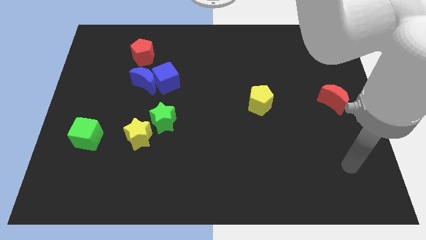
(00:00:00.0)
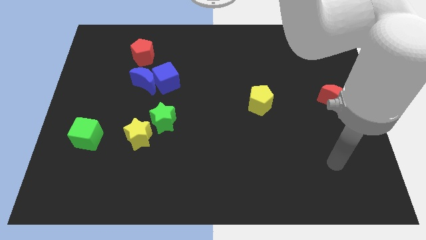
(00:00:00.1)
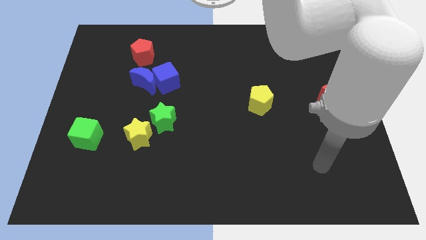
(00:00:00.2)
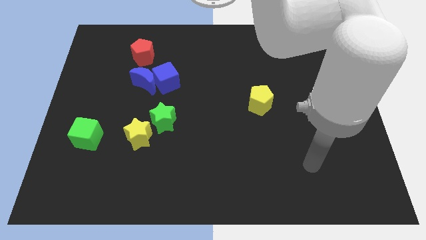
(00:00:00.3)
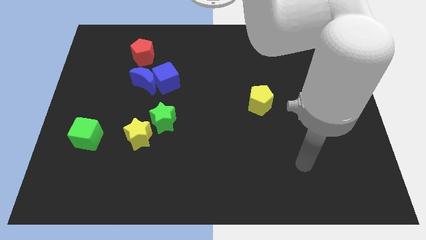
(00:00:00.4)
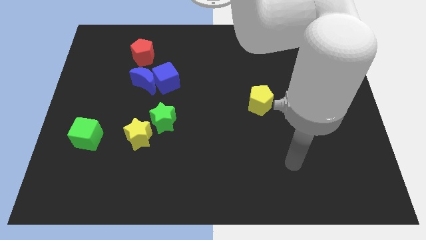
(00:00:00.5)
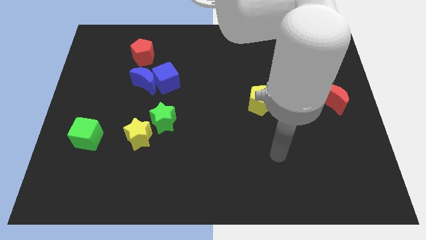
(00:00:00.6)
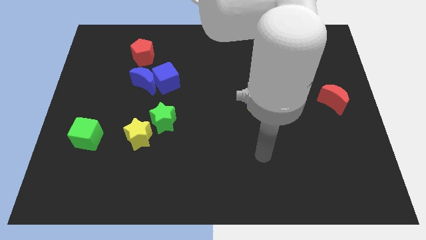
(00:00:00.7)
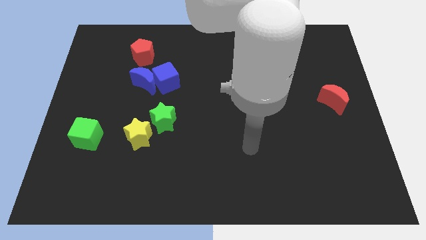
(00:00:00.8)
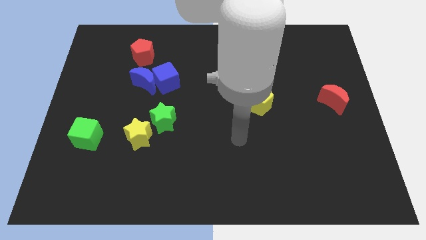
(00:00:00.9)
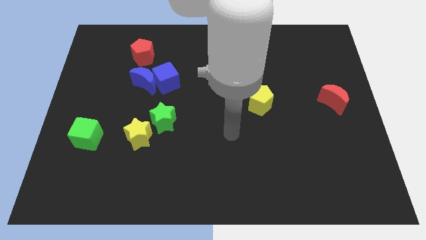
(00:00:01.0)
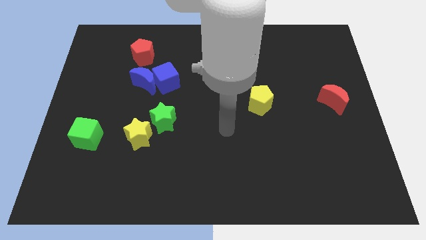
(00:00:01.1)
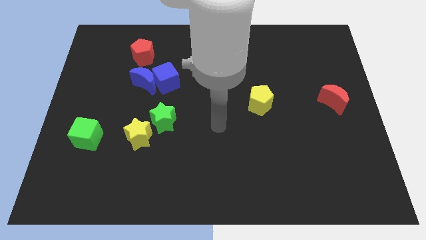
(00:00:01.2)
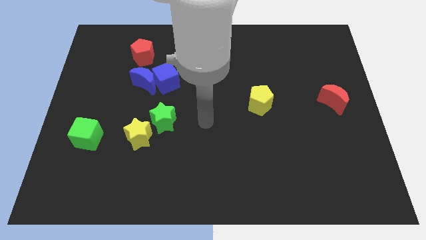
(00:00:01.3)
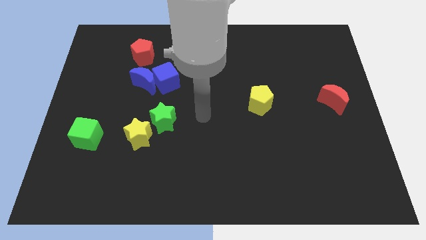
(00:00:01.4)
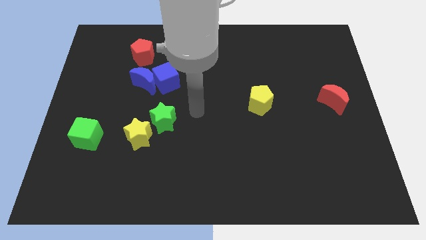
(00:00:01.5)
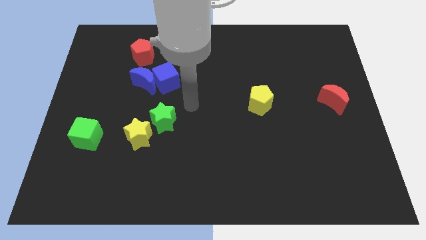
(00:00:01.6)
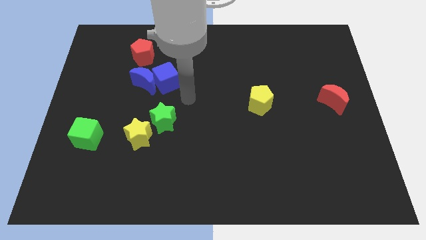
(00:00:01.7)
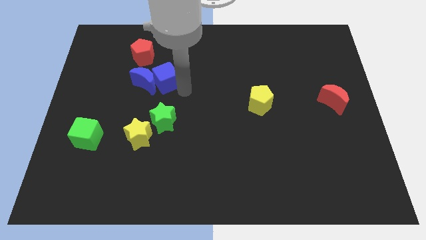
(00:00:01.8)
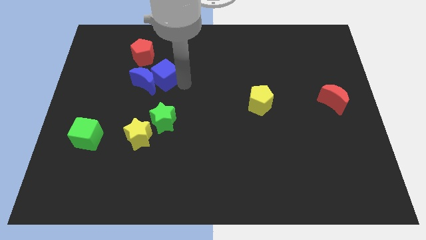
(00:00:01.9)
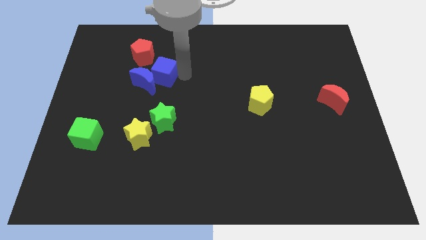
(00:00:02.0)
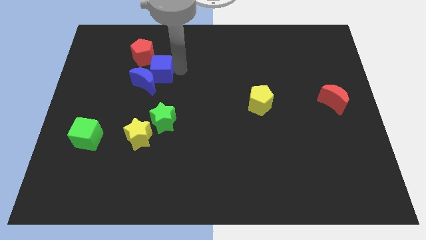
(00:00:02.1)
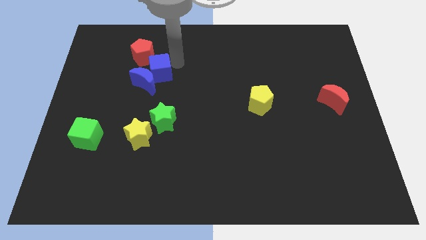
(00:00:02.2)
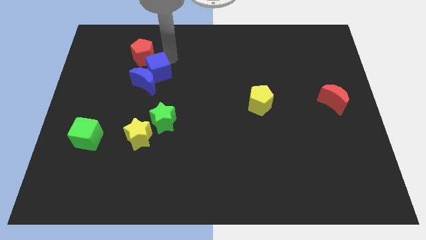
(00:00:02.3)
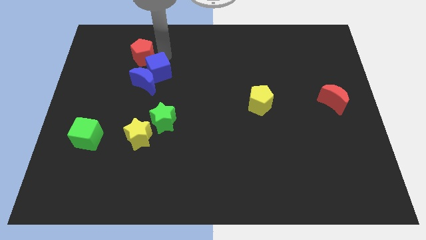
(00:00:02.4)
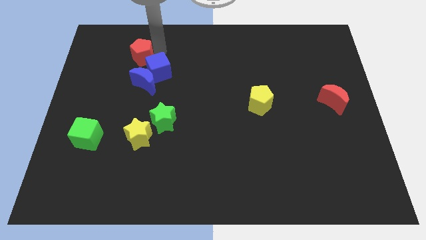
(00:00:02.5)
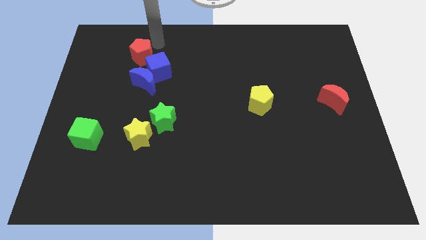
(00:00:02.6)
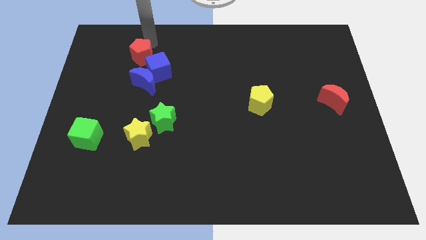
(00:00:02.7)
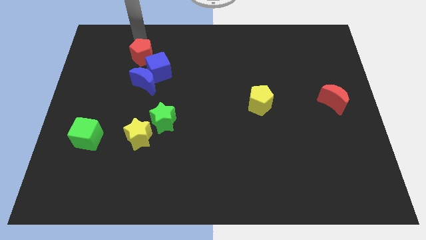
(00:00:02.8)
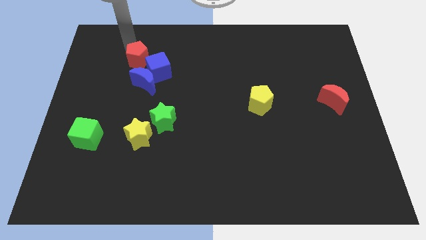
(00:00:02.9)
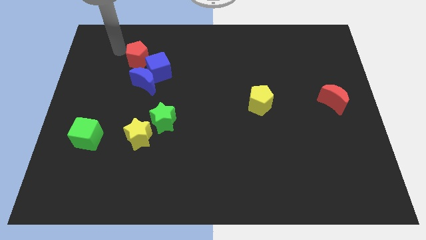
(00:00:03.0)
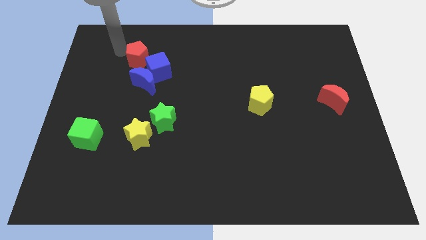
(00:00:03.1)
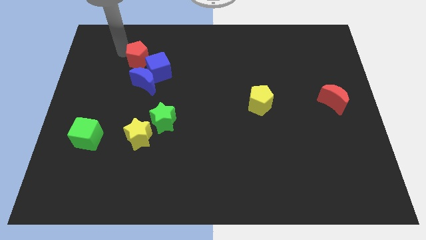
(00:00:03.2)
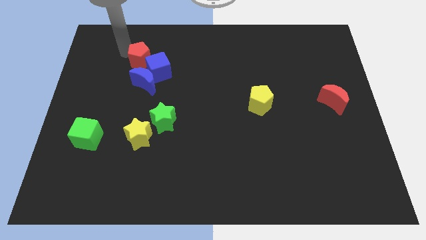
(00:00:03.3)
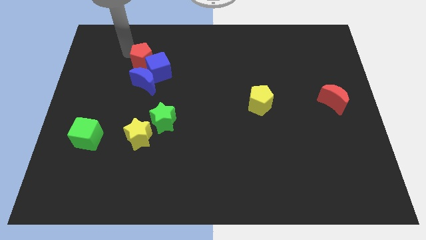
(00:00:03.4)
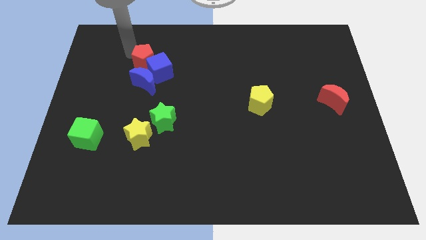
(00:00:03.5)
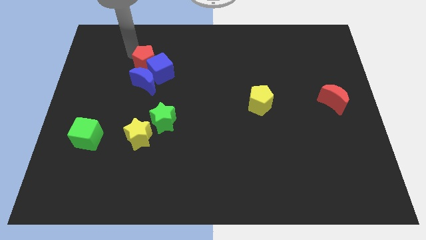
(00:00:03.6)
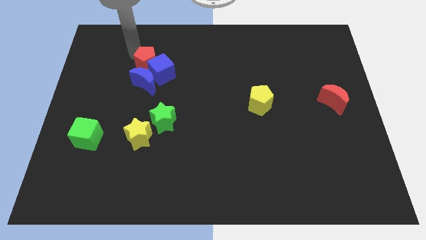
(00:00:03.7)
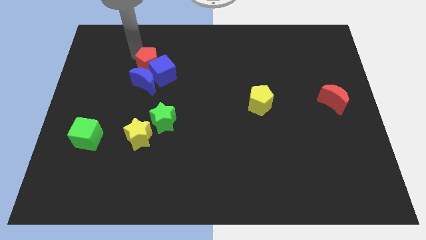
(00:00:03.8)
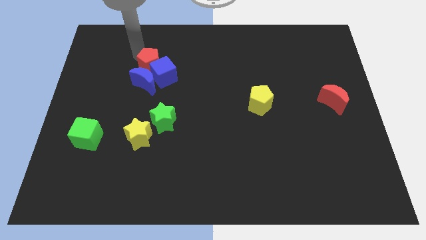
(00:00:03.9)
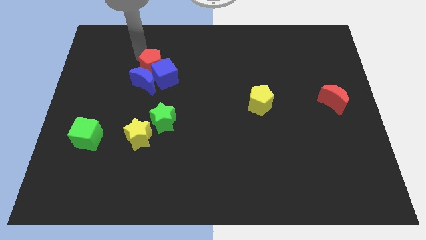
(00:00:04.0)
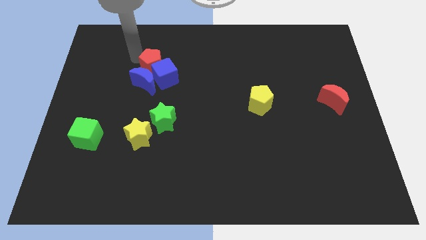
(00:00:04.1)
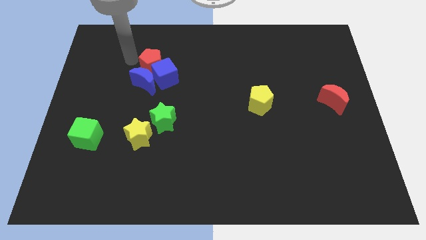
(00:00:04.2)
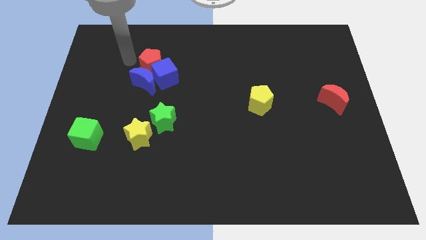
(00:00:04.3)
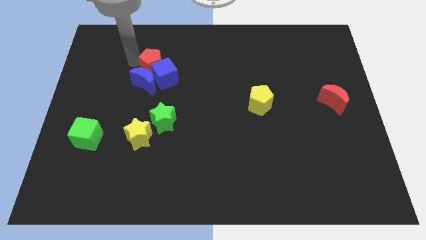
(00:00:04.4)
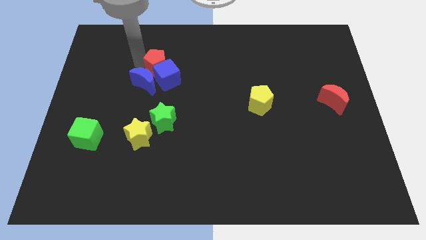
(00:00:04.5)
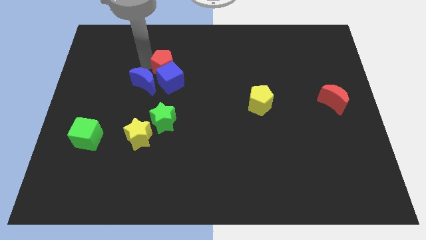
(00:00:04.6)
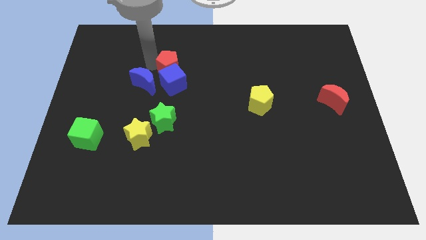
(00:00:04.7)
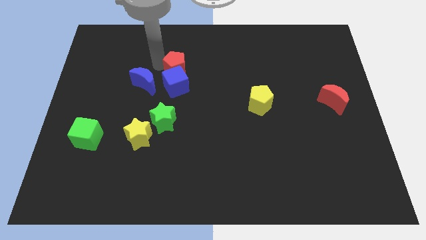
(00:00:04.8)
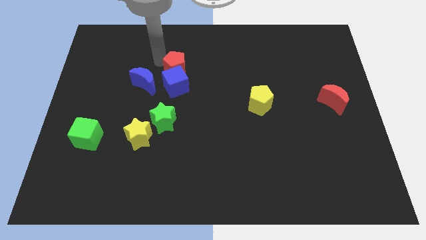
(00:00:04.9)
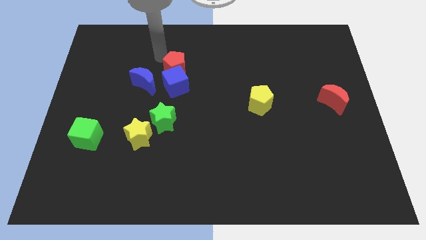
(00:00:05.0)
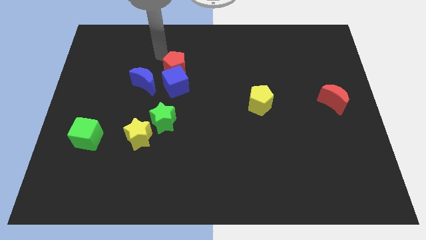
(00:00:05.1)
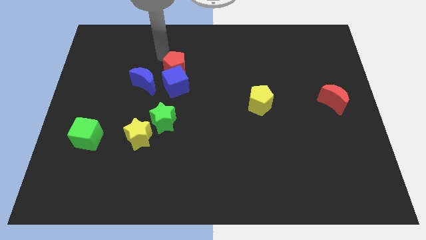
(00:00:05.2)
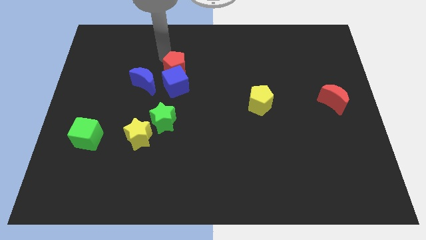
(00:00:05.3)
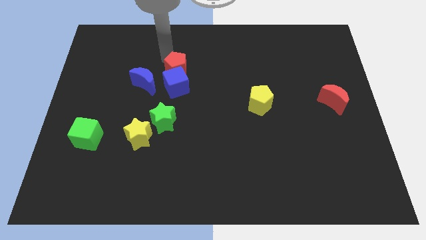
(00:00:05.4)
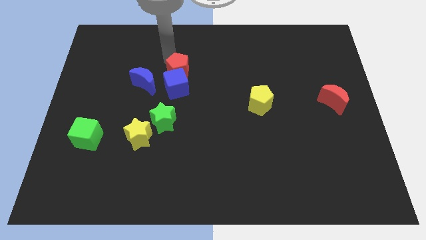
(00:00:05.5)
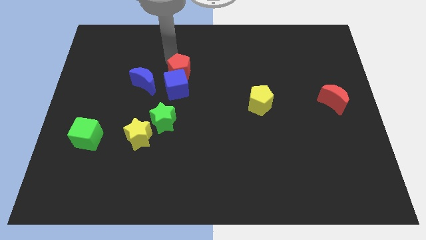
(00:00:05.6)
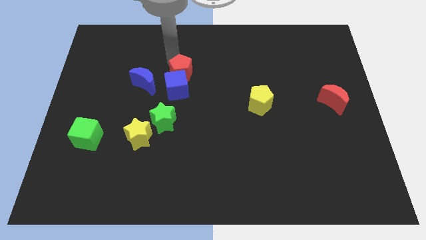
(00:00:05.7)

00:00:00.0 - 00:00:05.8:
push the red pentagon to the center

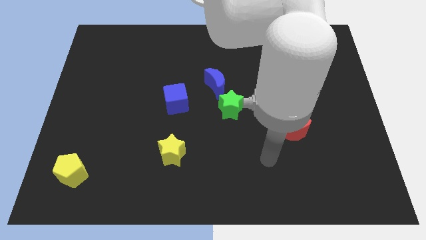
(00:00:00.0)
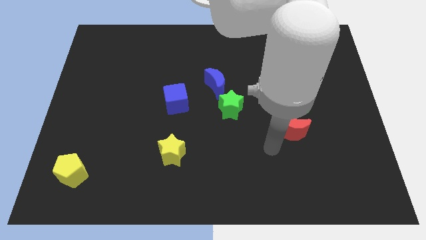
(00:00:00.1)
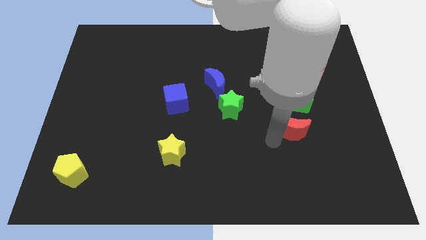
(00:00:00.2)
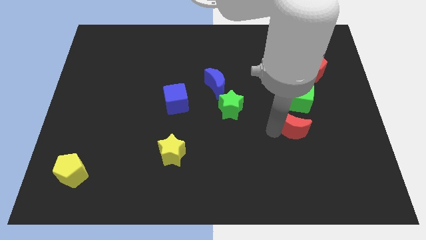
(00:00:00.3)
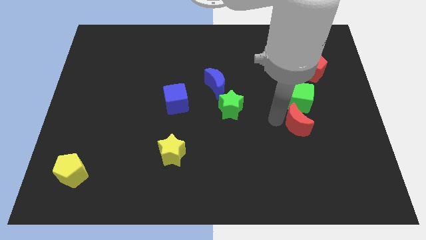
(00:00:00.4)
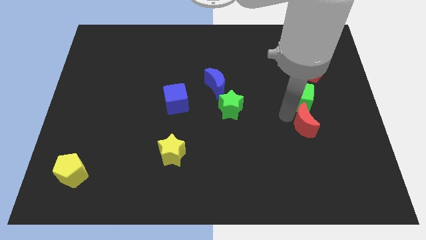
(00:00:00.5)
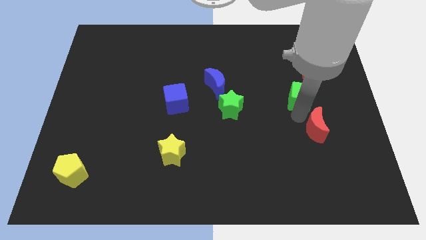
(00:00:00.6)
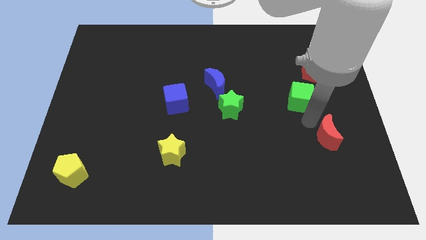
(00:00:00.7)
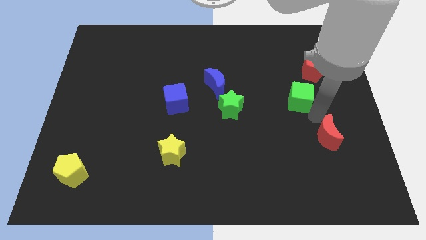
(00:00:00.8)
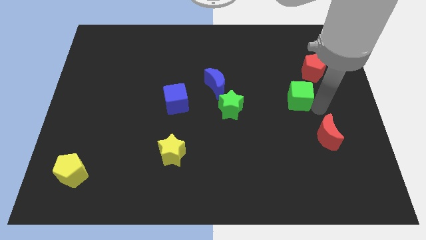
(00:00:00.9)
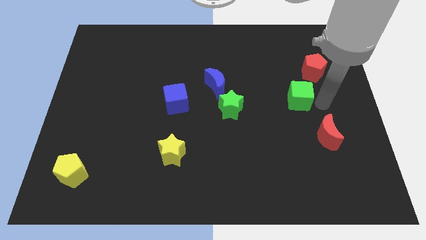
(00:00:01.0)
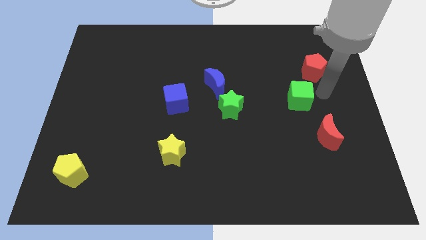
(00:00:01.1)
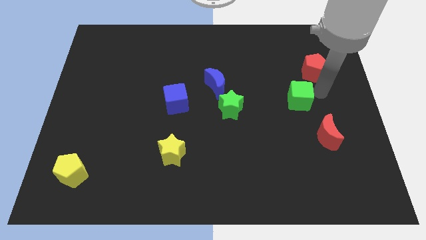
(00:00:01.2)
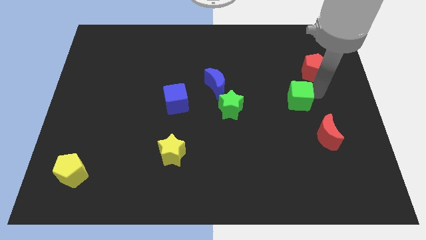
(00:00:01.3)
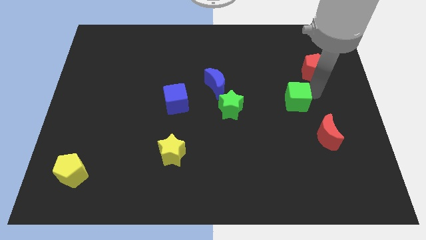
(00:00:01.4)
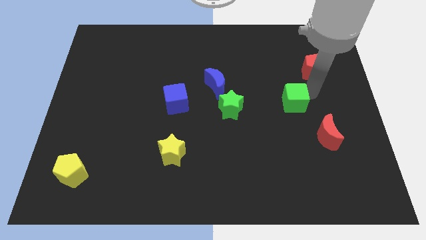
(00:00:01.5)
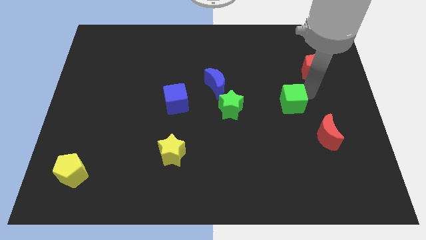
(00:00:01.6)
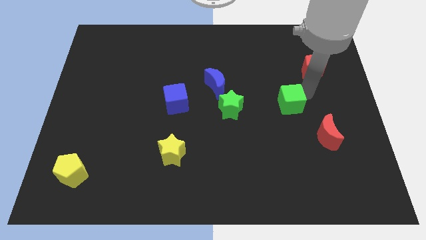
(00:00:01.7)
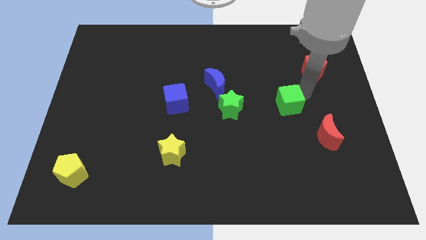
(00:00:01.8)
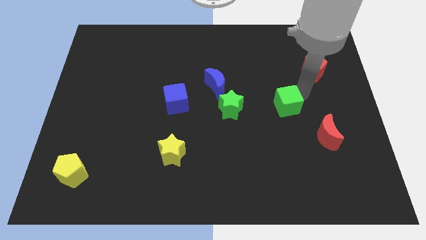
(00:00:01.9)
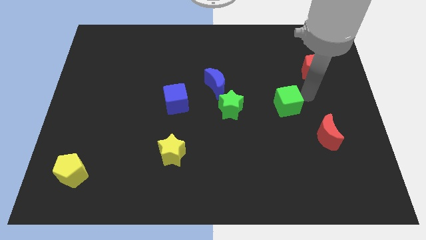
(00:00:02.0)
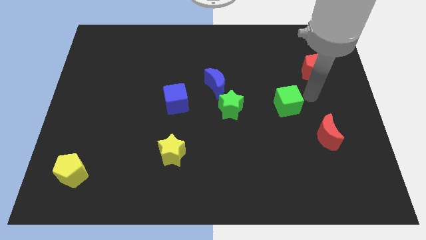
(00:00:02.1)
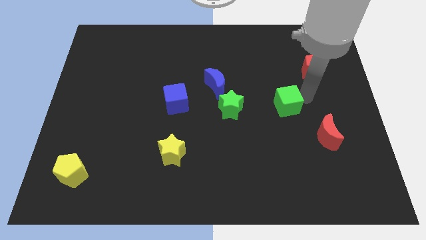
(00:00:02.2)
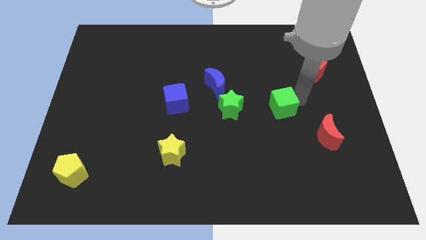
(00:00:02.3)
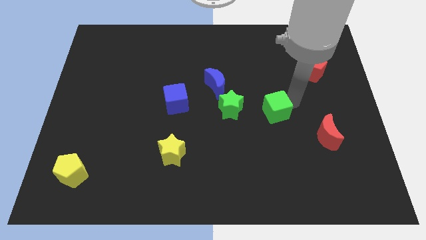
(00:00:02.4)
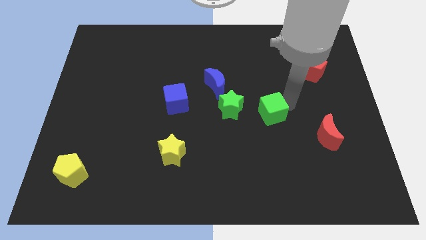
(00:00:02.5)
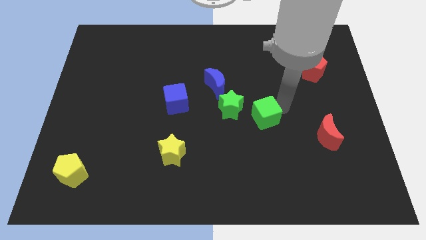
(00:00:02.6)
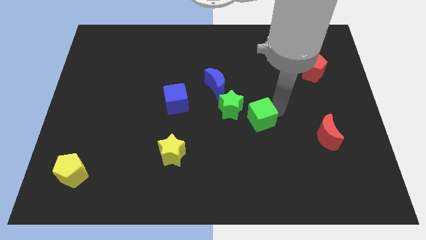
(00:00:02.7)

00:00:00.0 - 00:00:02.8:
push the green cube to the middle
